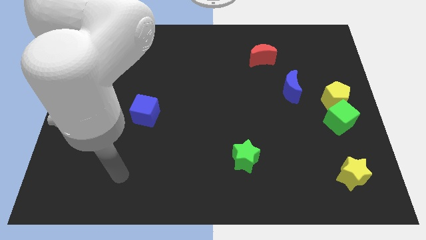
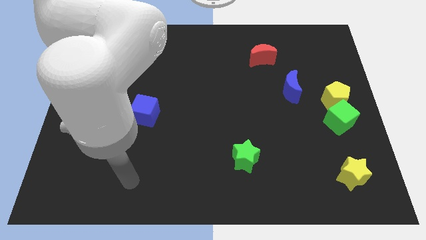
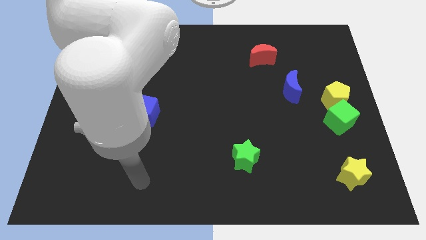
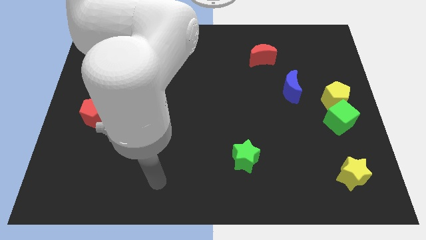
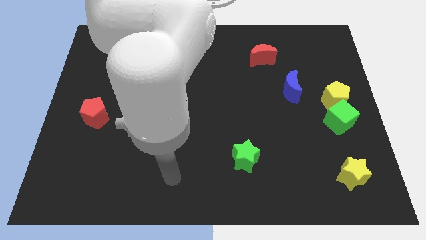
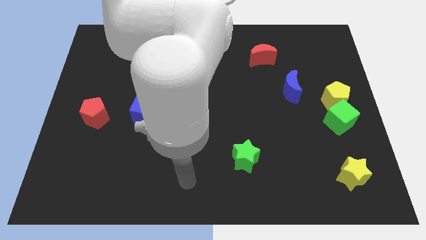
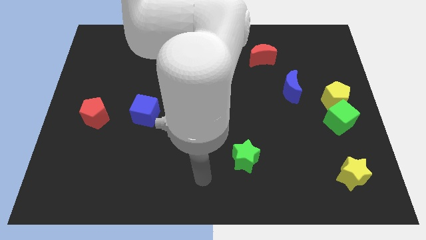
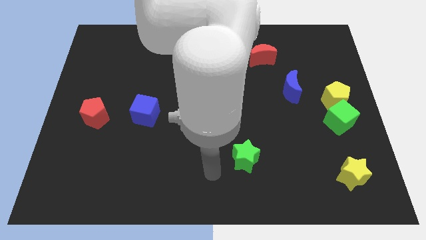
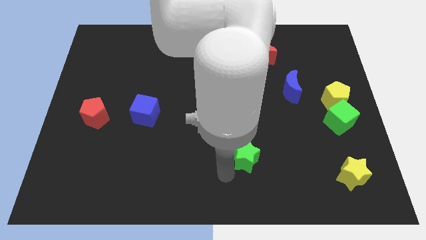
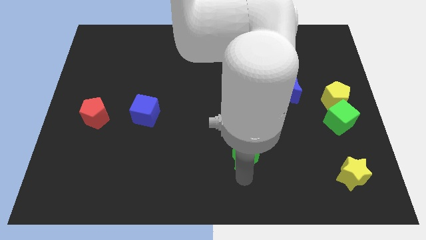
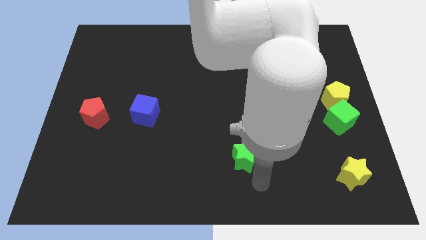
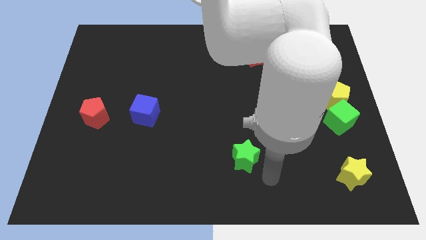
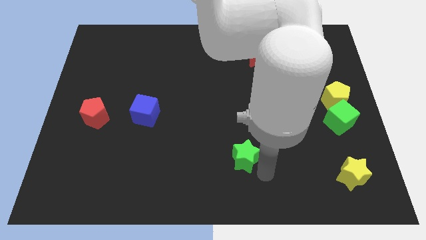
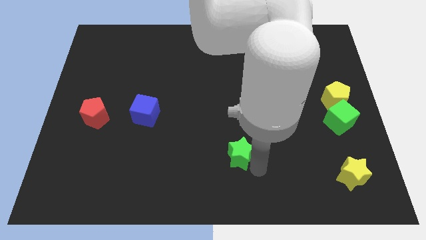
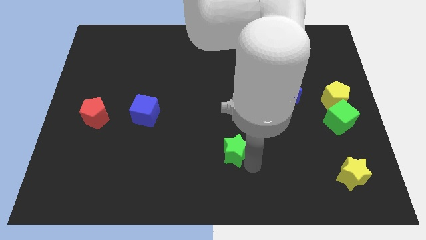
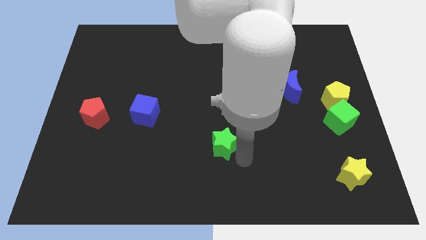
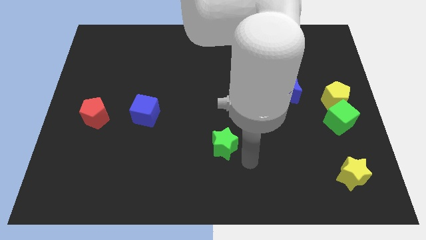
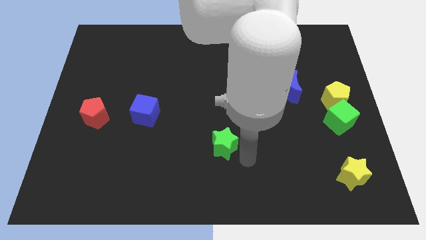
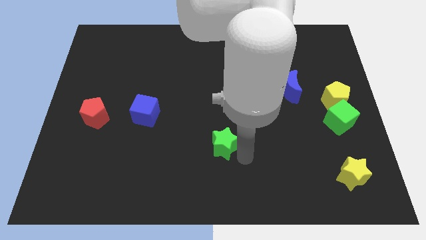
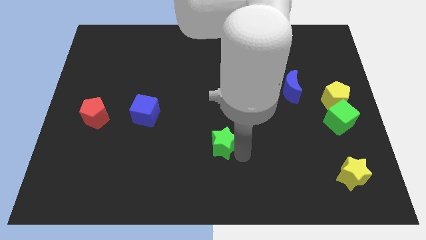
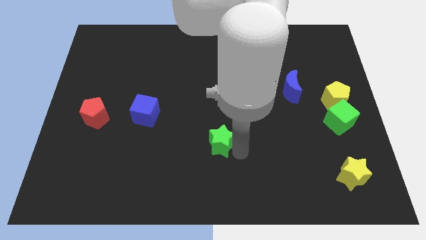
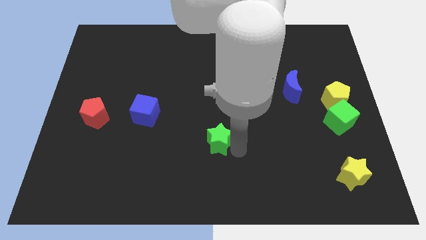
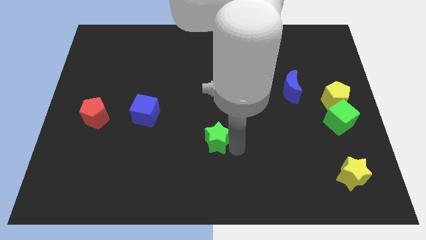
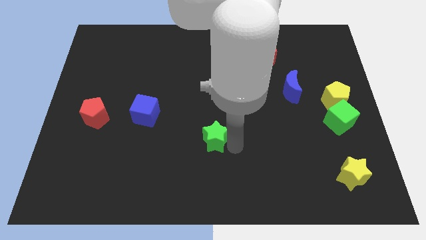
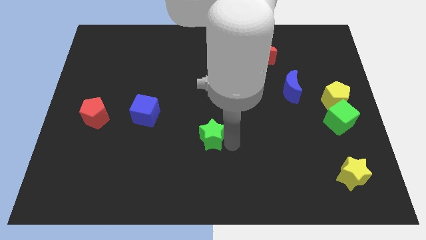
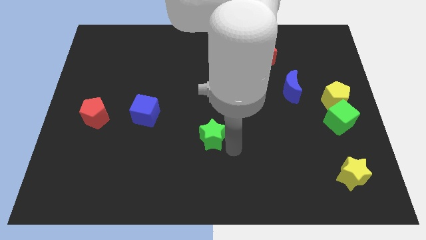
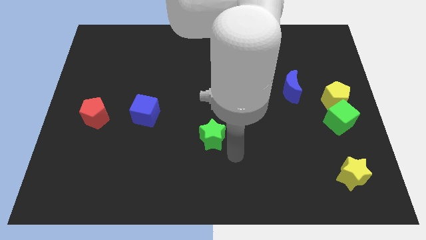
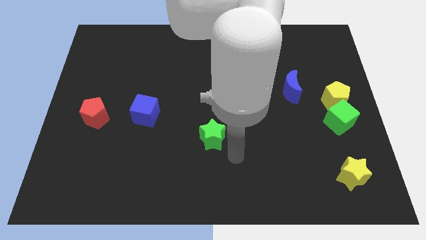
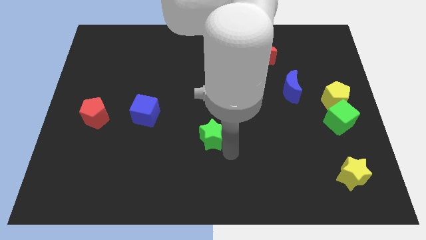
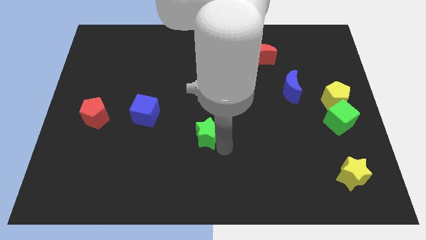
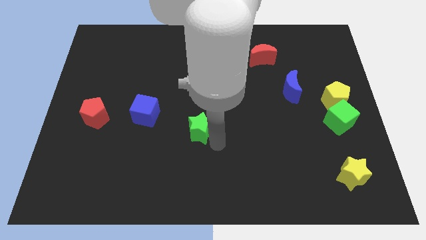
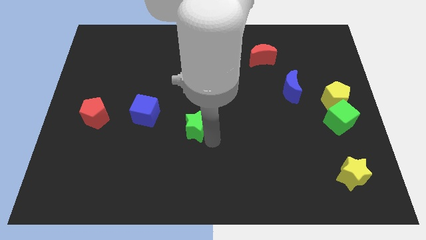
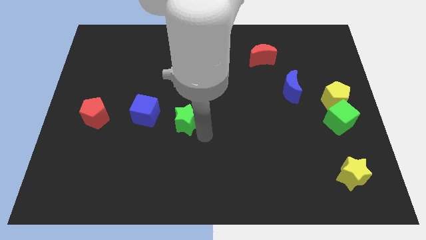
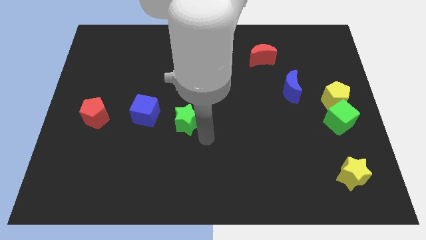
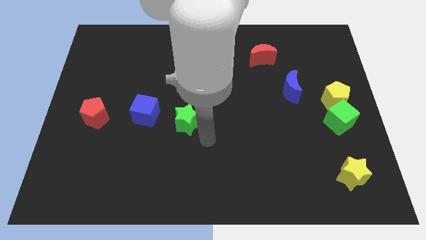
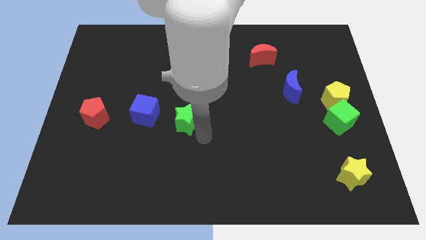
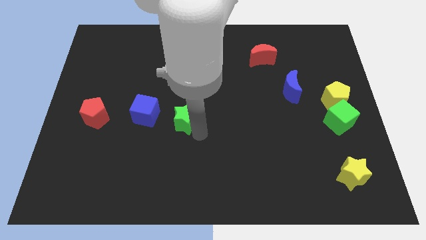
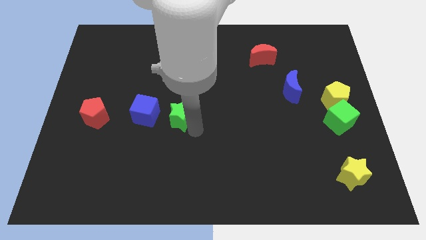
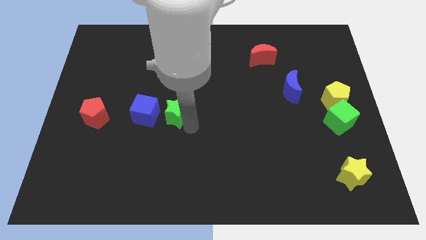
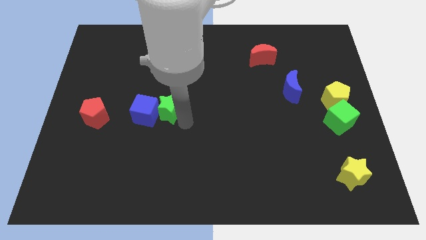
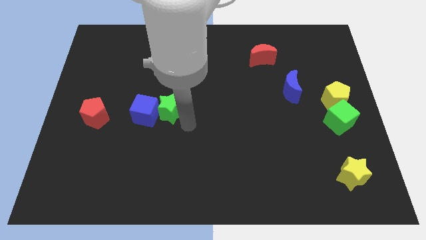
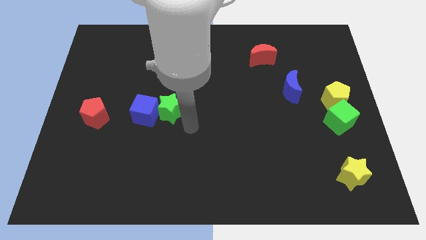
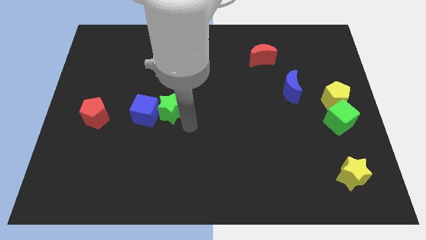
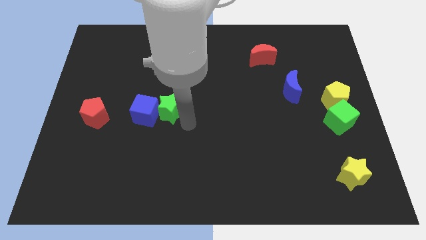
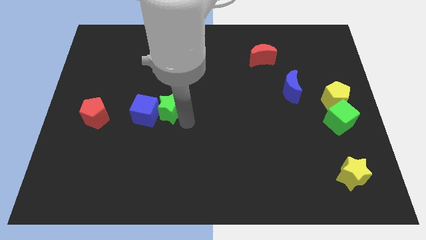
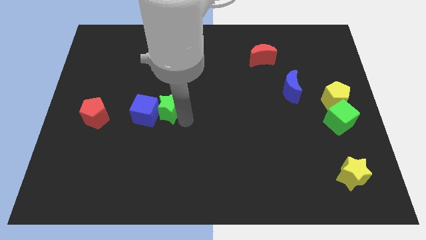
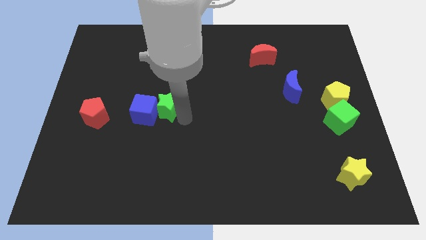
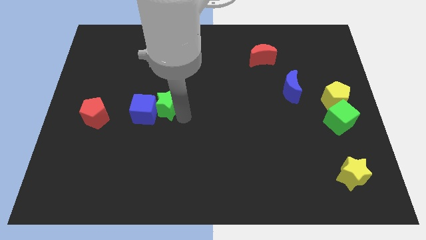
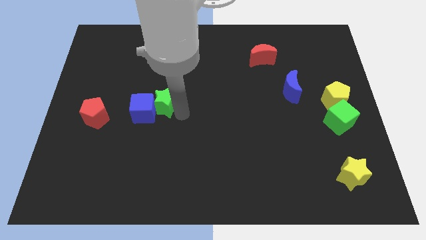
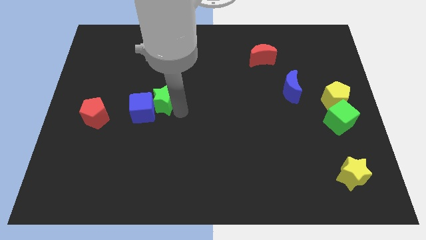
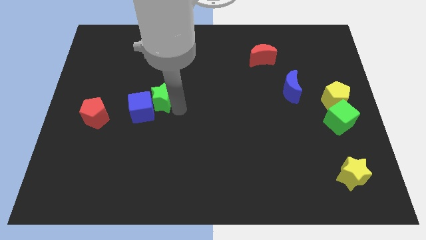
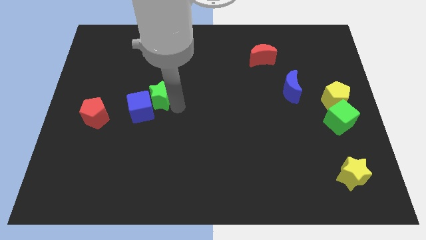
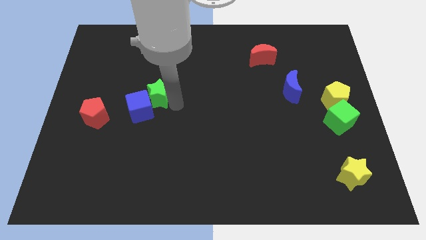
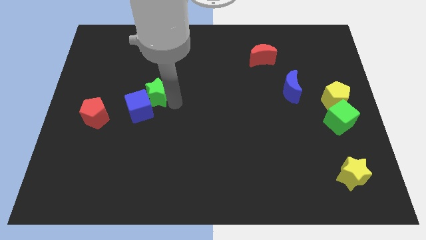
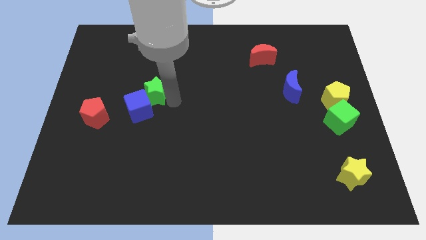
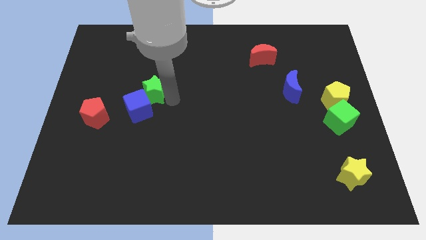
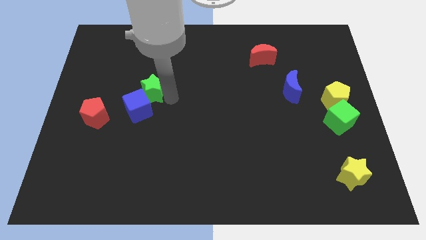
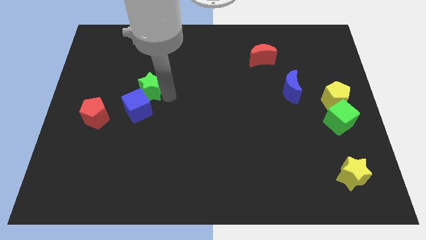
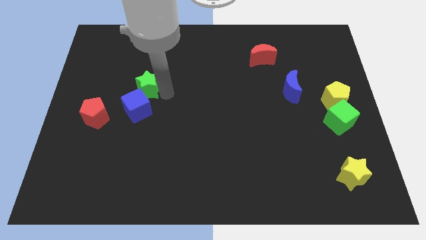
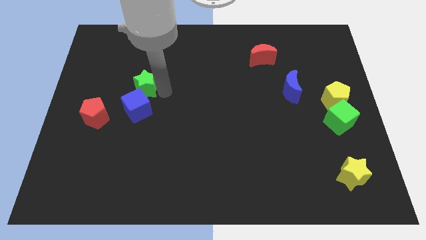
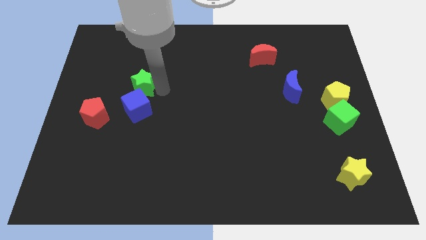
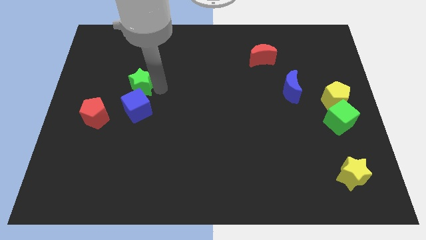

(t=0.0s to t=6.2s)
put the green star to the top left side of the blue cube

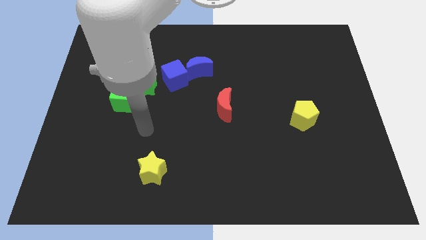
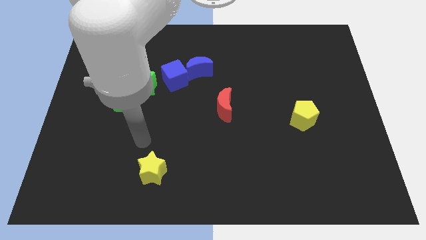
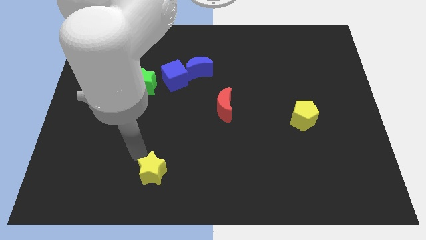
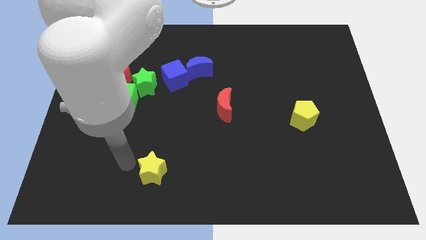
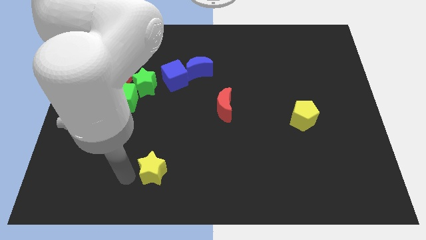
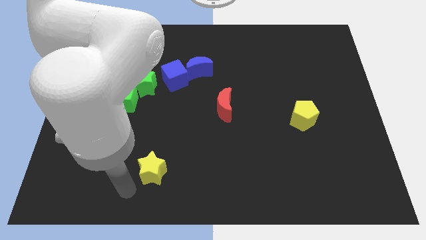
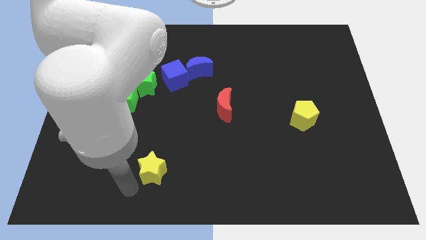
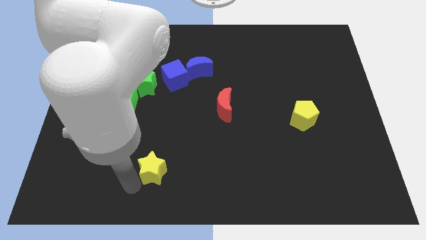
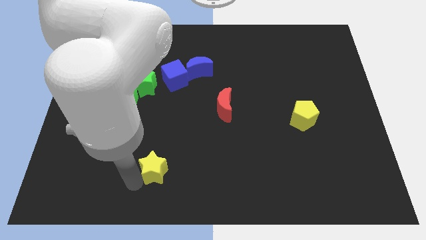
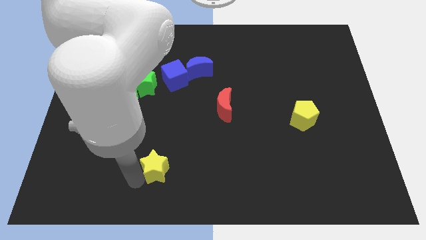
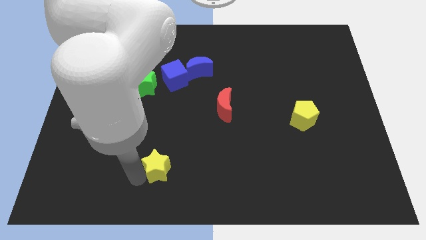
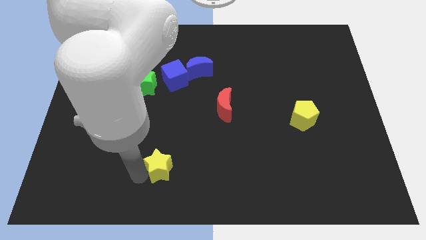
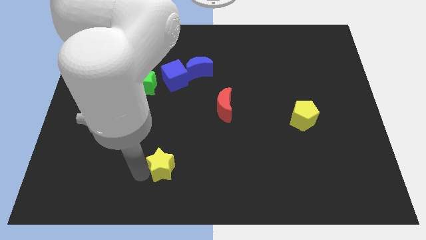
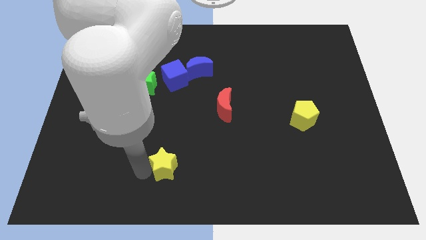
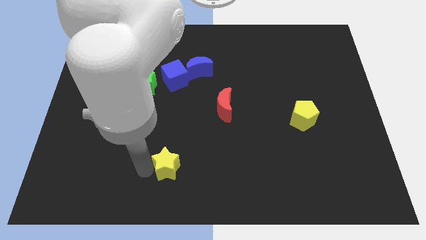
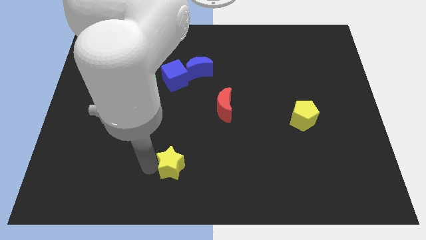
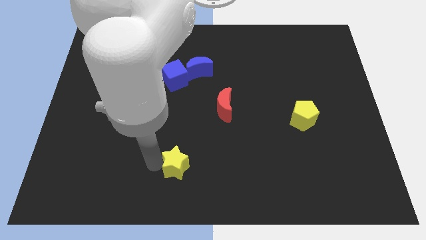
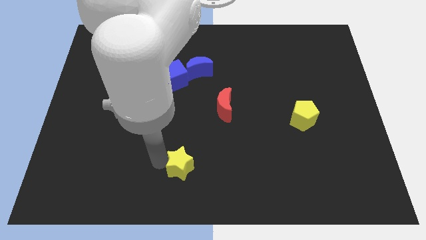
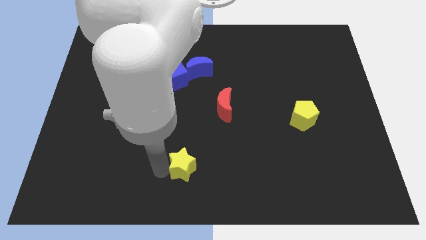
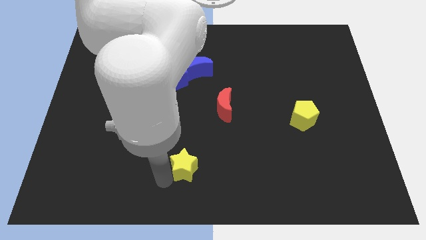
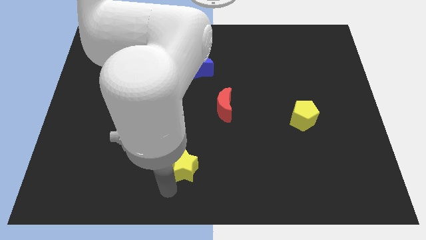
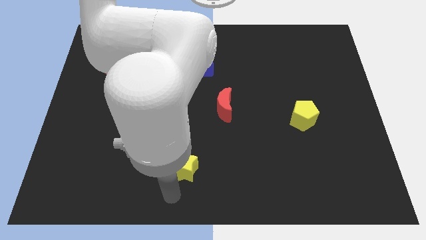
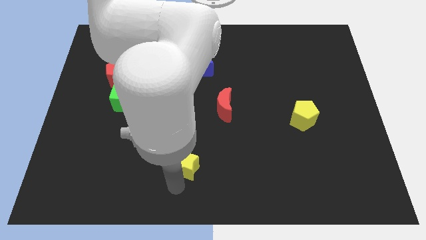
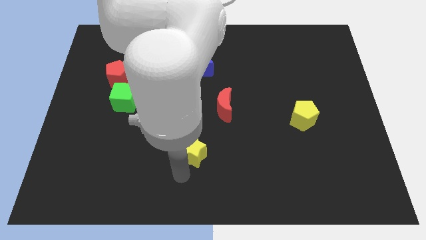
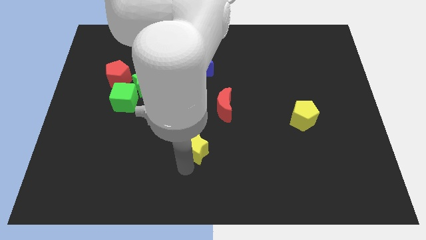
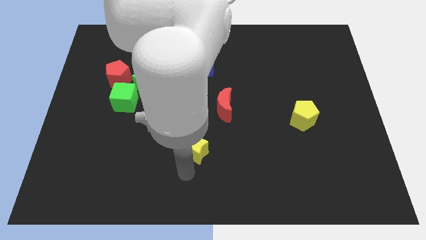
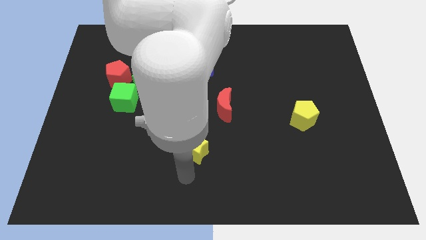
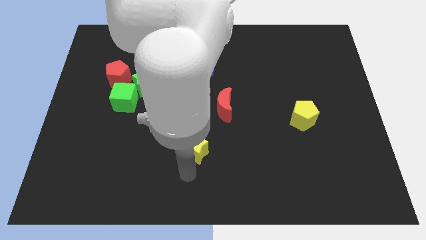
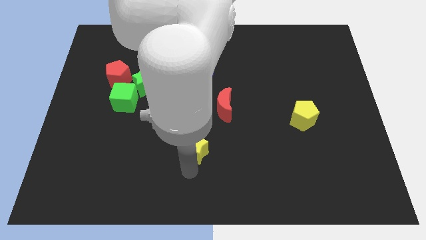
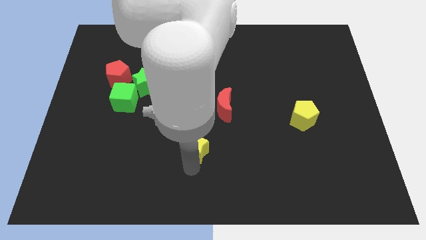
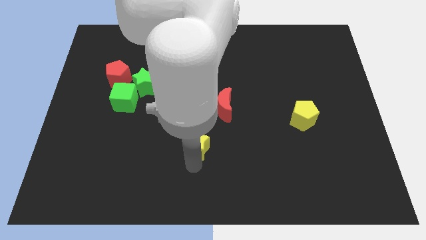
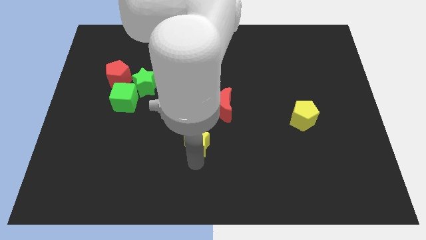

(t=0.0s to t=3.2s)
put the yellow star to the bottom left side of the red moon
